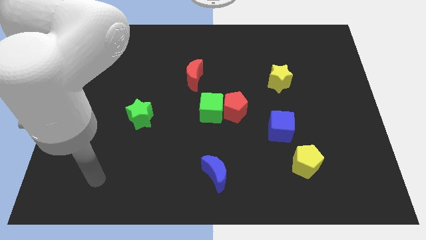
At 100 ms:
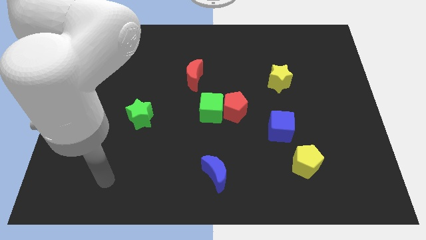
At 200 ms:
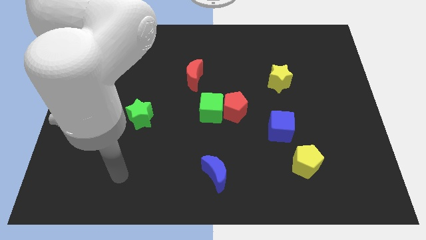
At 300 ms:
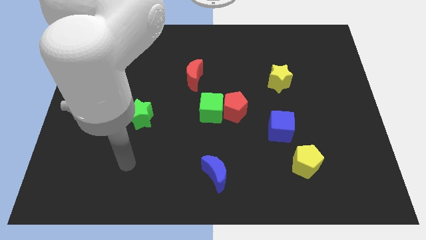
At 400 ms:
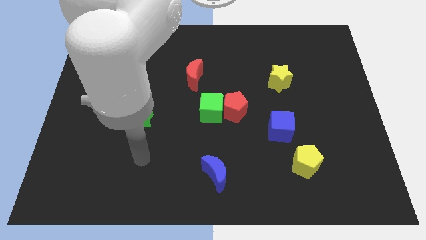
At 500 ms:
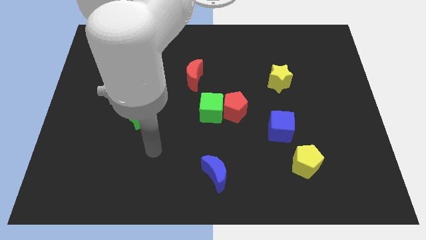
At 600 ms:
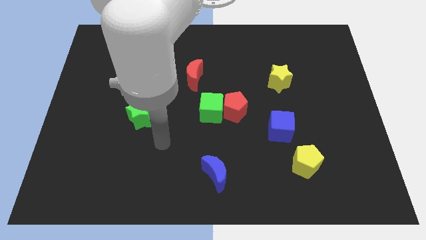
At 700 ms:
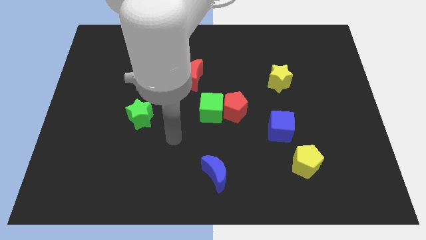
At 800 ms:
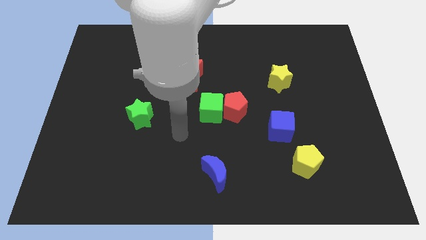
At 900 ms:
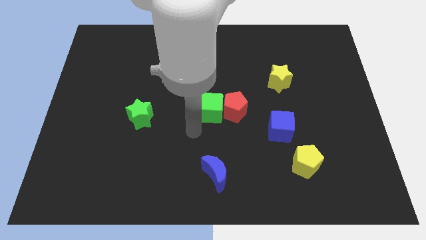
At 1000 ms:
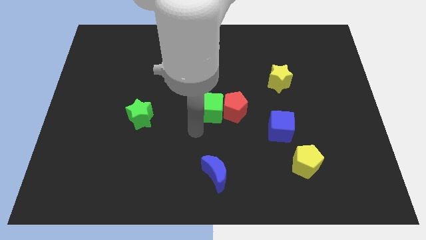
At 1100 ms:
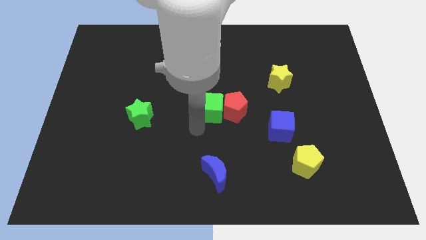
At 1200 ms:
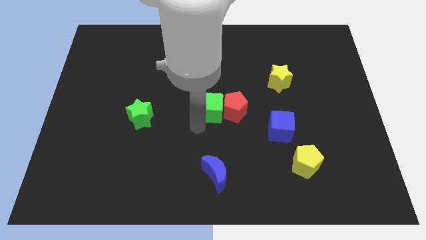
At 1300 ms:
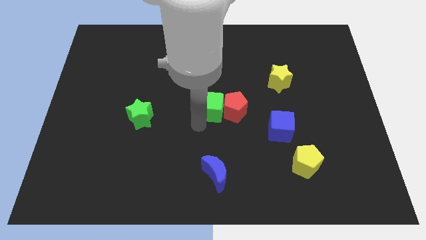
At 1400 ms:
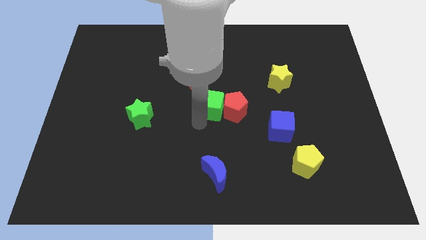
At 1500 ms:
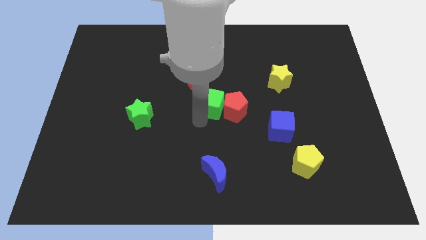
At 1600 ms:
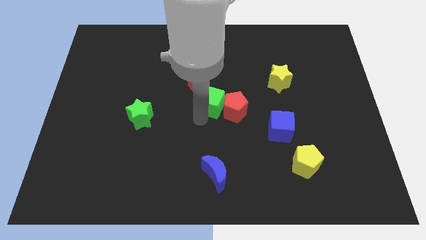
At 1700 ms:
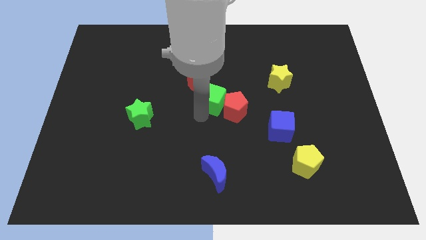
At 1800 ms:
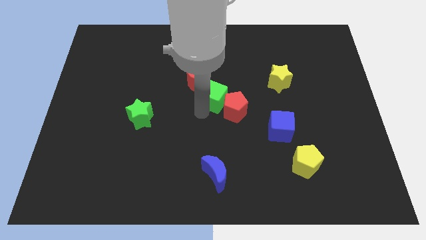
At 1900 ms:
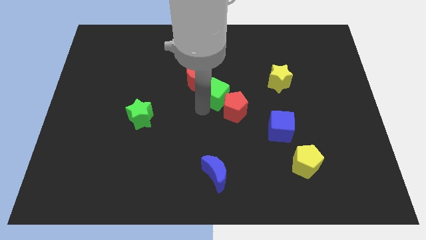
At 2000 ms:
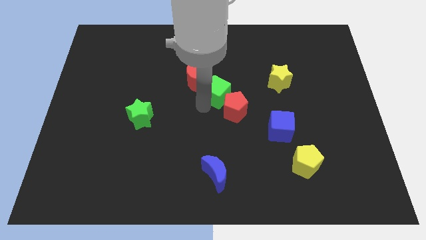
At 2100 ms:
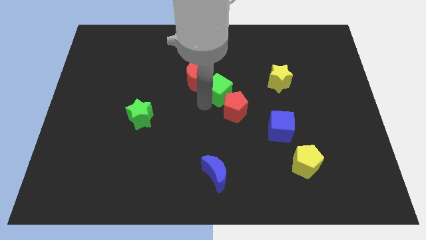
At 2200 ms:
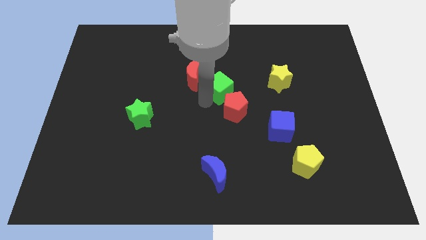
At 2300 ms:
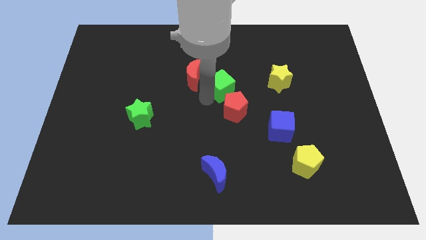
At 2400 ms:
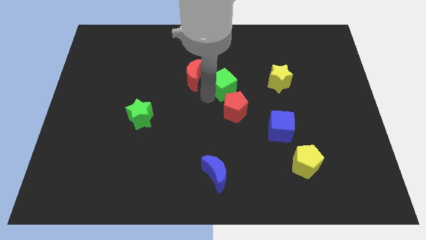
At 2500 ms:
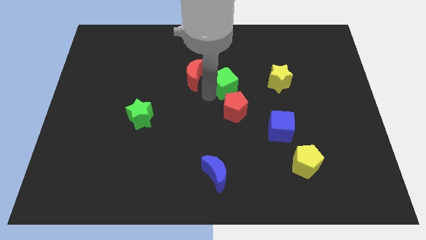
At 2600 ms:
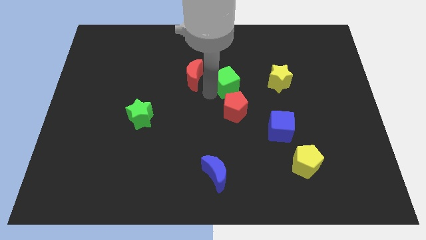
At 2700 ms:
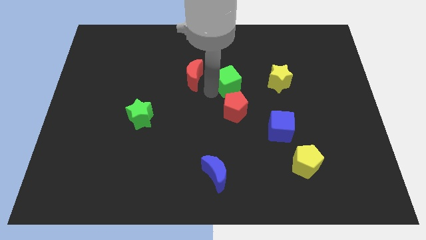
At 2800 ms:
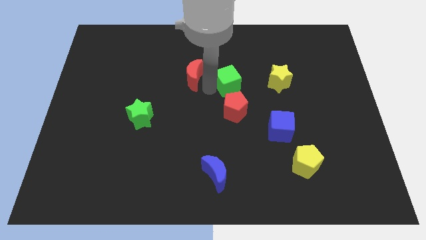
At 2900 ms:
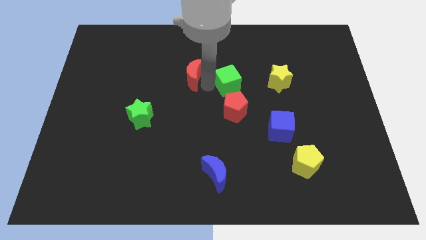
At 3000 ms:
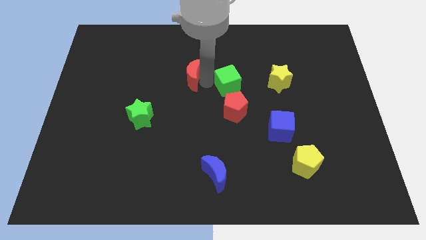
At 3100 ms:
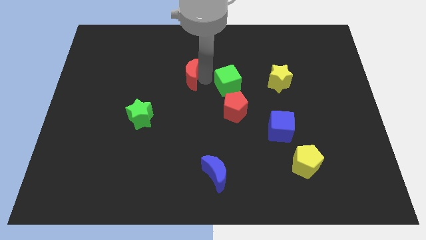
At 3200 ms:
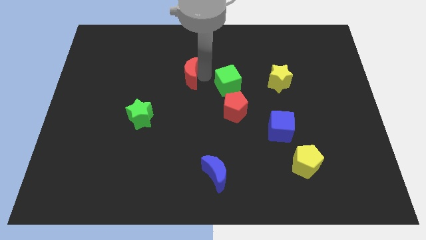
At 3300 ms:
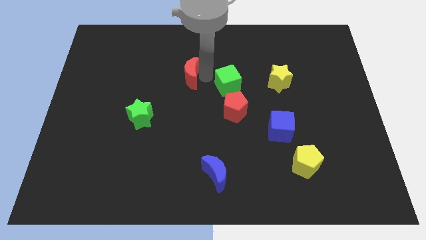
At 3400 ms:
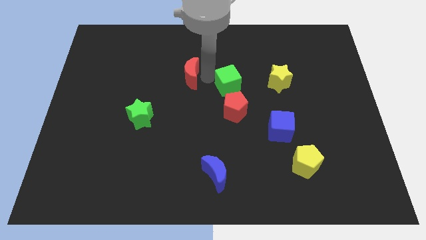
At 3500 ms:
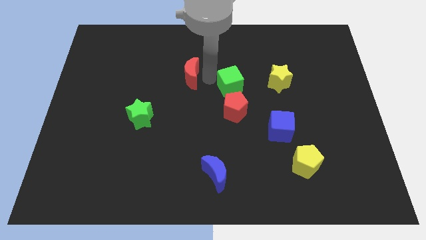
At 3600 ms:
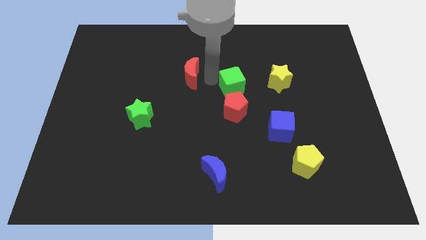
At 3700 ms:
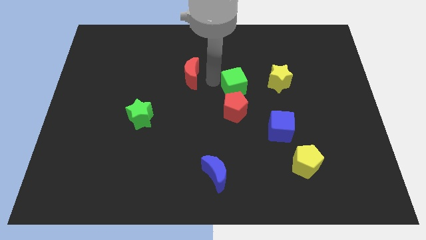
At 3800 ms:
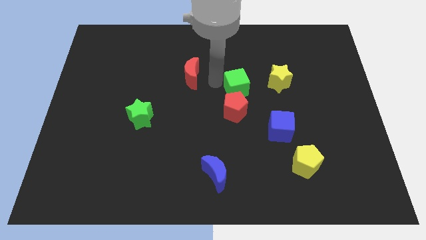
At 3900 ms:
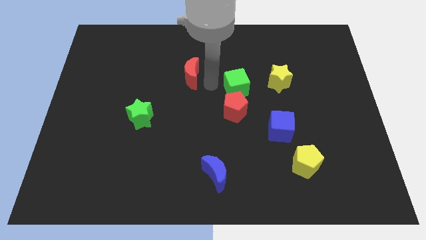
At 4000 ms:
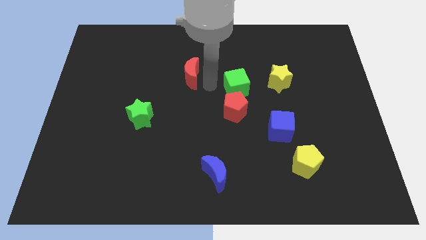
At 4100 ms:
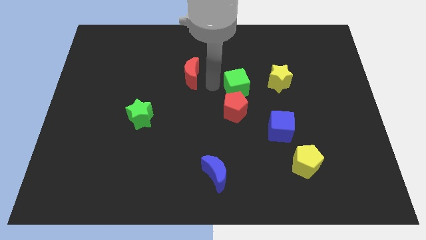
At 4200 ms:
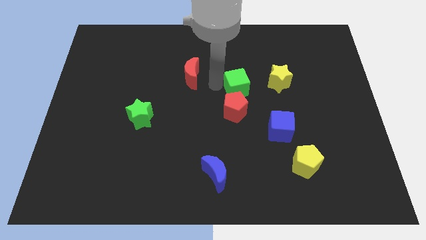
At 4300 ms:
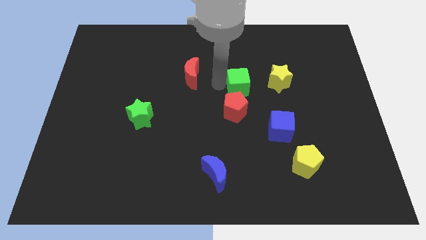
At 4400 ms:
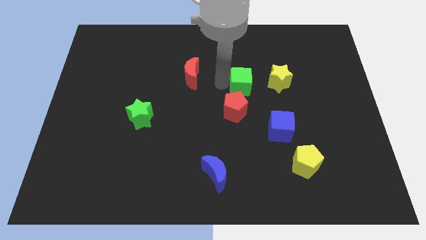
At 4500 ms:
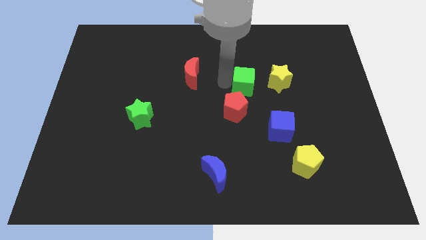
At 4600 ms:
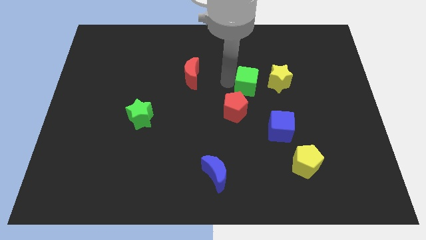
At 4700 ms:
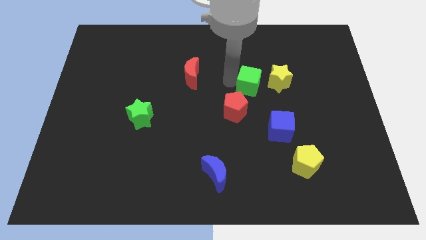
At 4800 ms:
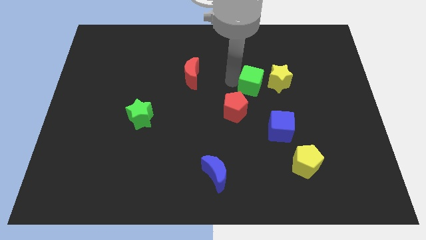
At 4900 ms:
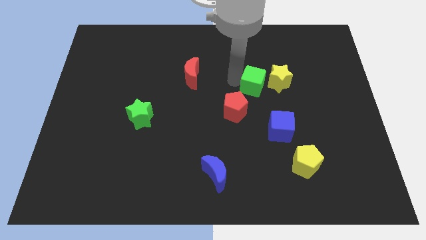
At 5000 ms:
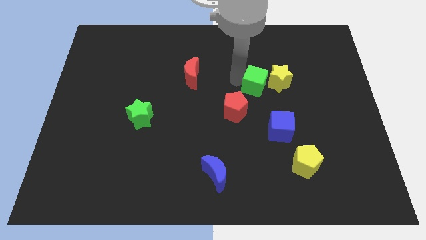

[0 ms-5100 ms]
move the green cube to the yellow star
